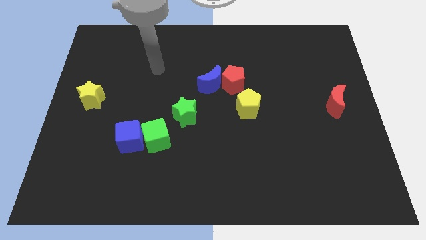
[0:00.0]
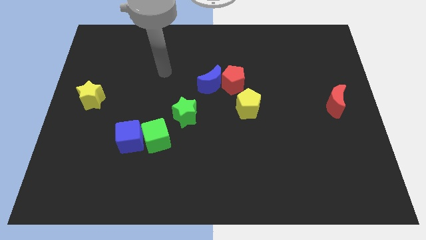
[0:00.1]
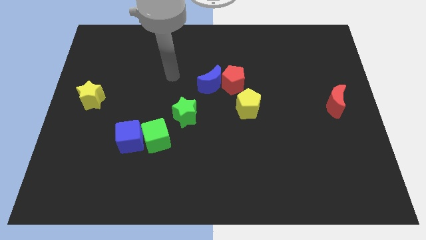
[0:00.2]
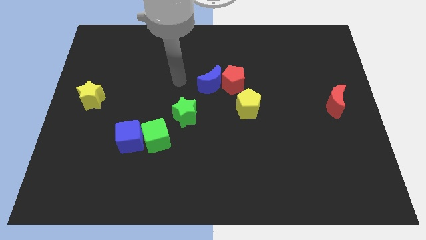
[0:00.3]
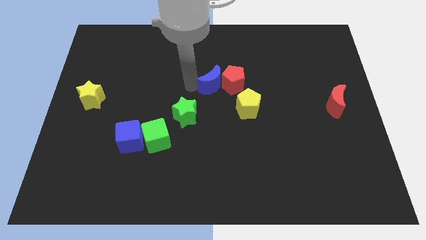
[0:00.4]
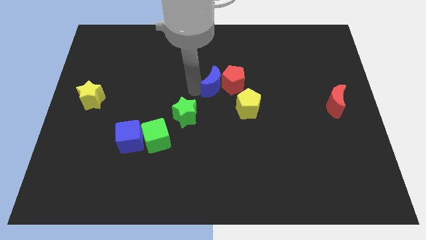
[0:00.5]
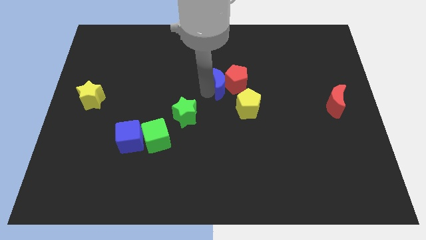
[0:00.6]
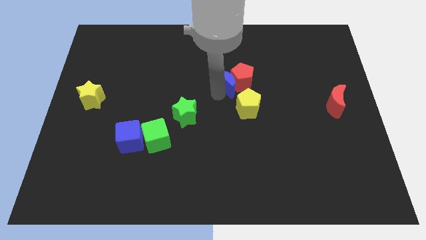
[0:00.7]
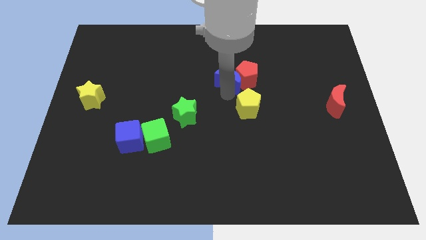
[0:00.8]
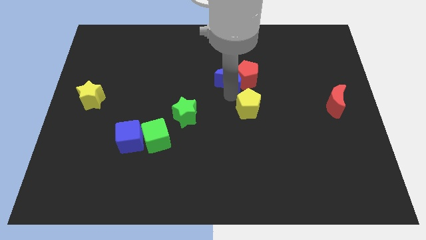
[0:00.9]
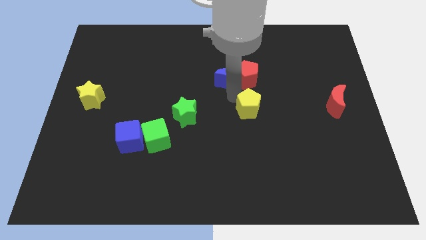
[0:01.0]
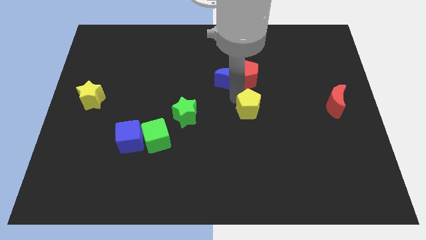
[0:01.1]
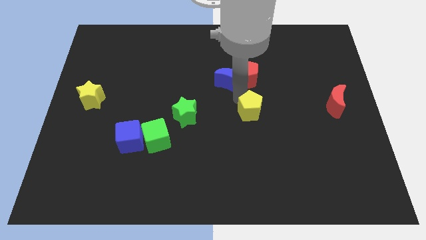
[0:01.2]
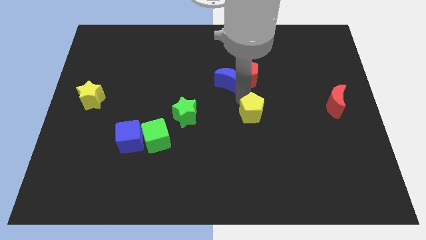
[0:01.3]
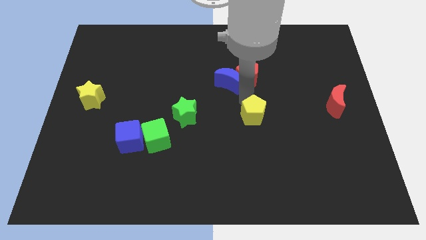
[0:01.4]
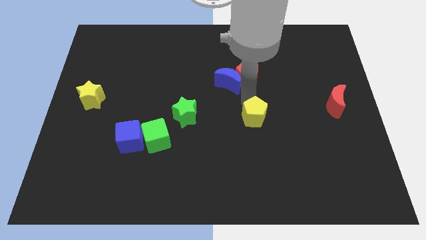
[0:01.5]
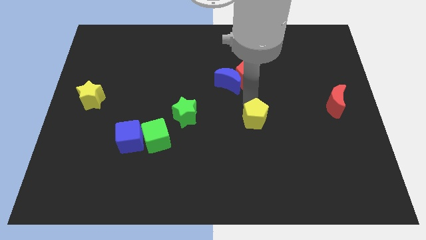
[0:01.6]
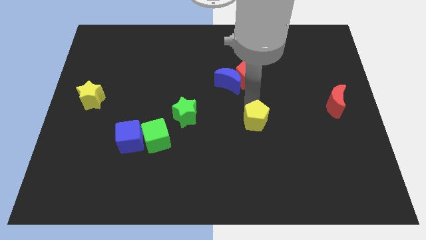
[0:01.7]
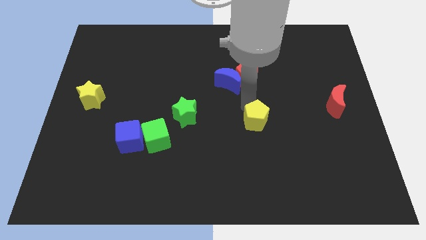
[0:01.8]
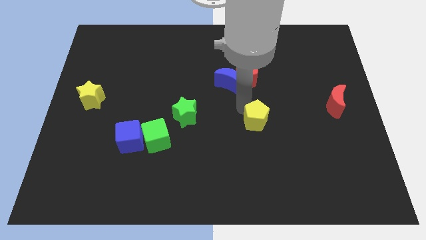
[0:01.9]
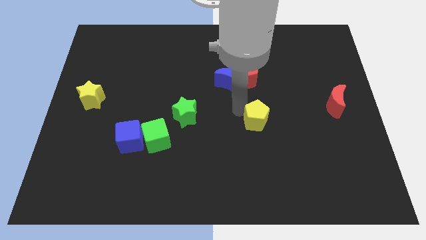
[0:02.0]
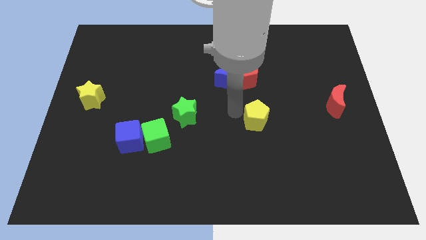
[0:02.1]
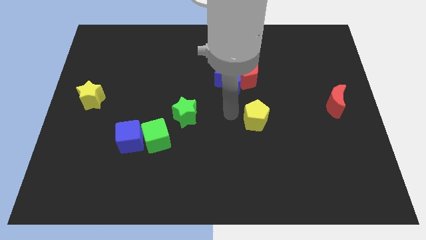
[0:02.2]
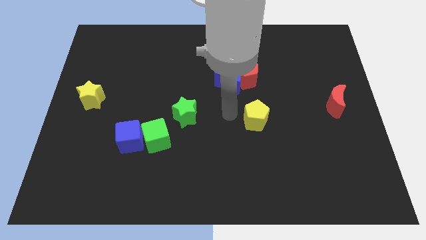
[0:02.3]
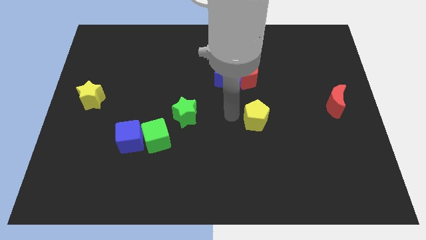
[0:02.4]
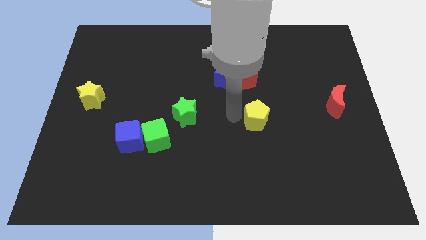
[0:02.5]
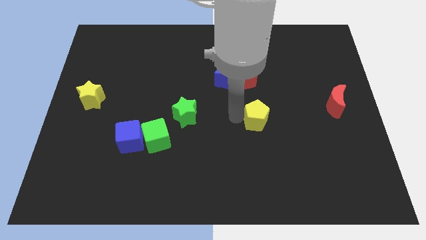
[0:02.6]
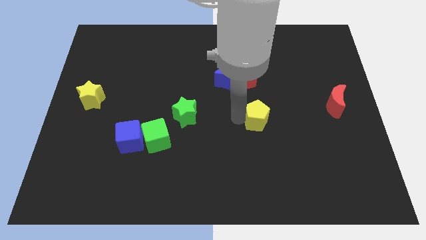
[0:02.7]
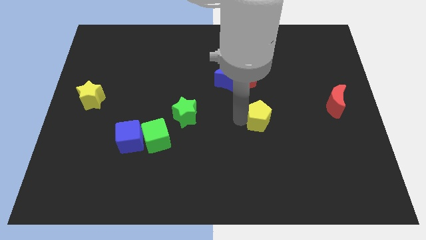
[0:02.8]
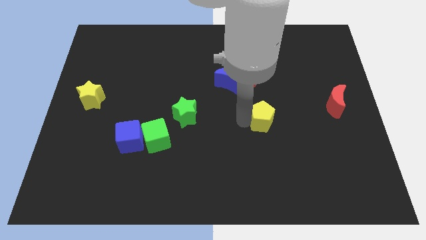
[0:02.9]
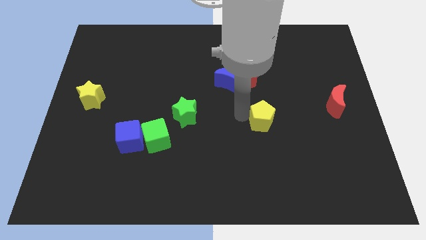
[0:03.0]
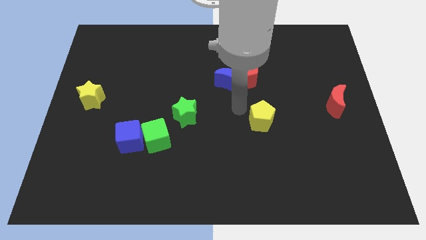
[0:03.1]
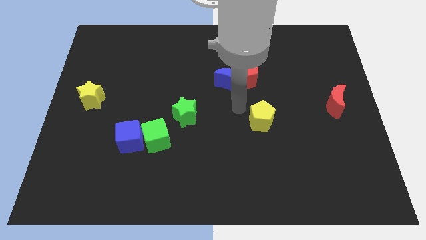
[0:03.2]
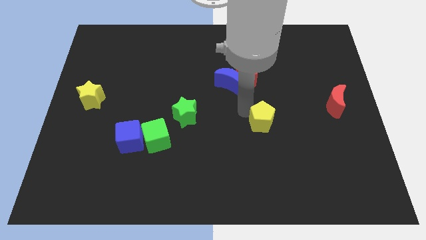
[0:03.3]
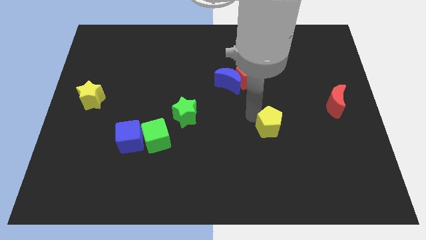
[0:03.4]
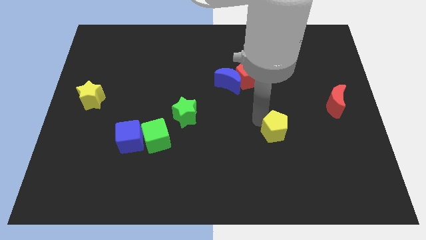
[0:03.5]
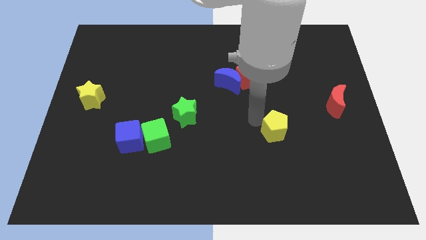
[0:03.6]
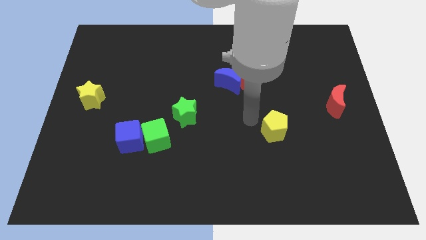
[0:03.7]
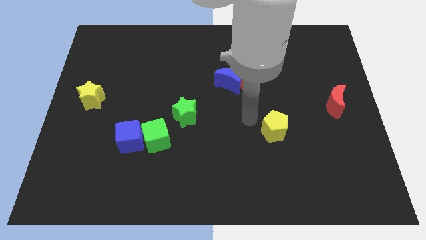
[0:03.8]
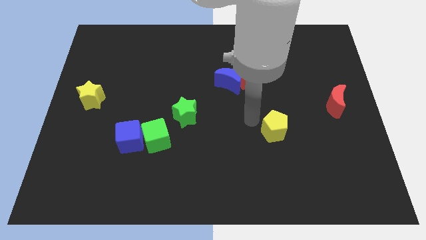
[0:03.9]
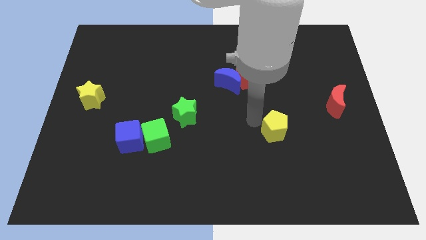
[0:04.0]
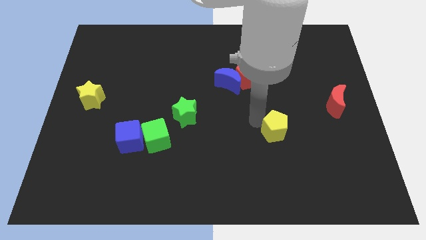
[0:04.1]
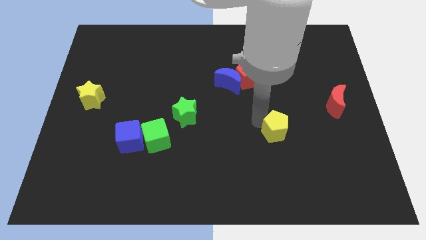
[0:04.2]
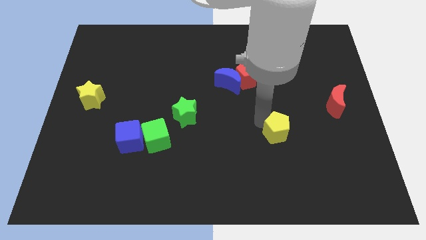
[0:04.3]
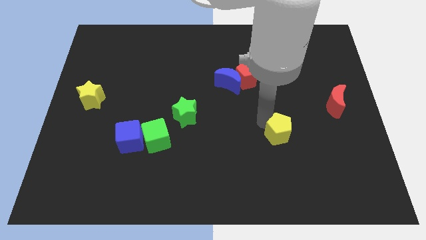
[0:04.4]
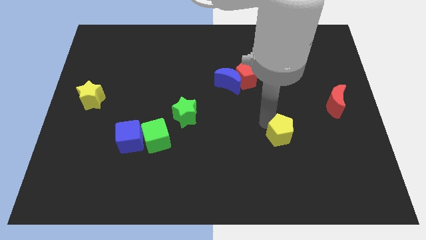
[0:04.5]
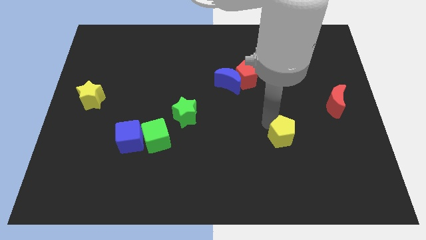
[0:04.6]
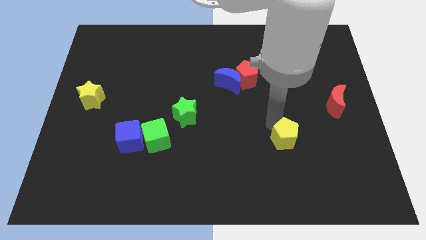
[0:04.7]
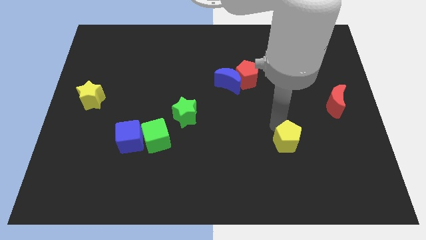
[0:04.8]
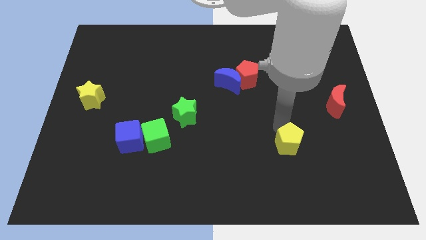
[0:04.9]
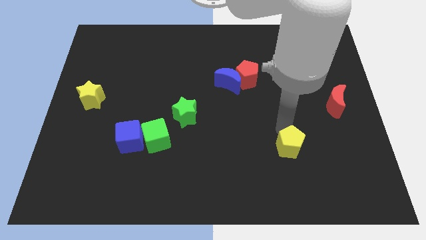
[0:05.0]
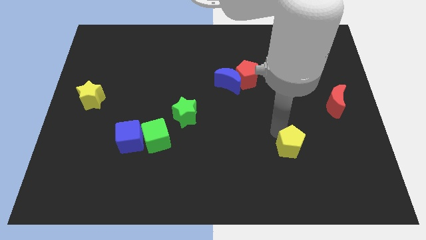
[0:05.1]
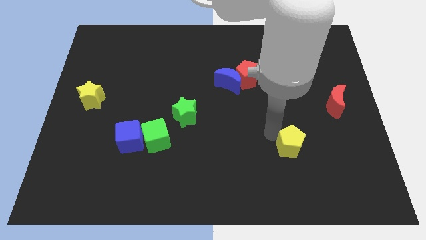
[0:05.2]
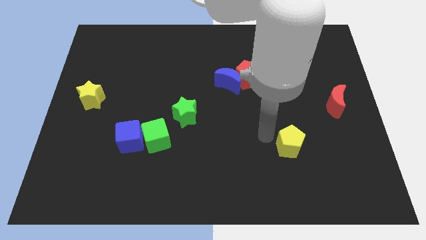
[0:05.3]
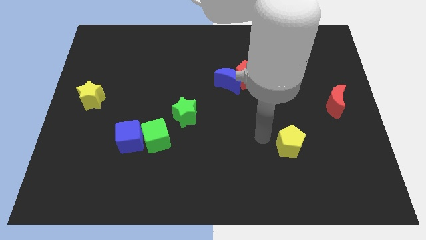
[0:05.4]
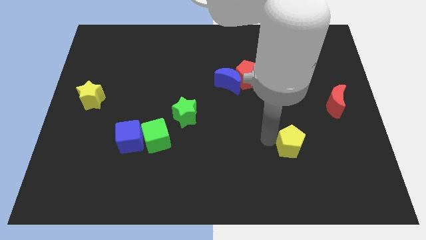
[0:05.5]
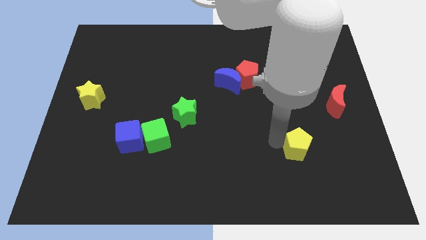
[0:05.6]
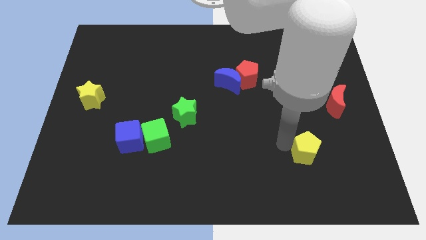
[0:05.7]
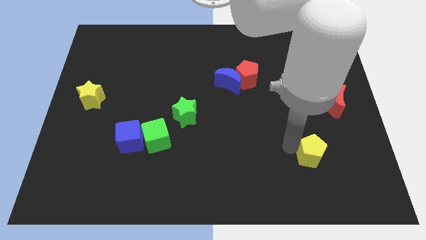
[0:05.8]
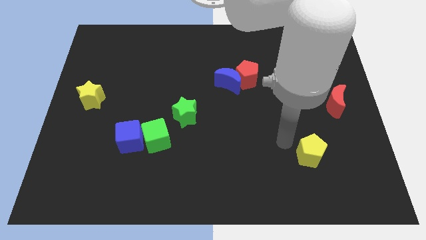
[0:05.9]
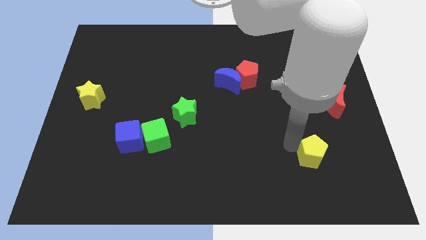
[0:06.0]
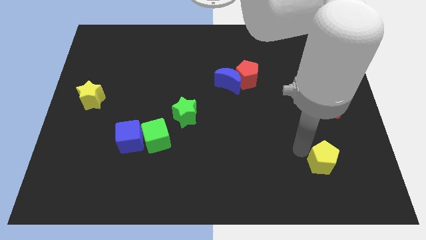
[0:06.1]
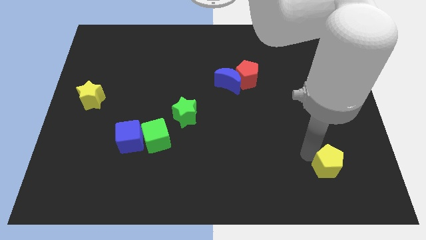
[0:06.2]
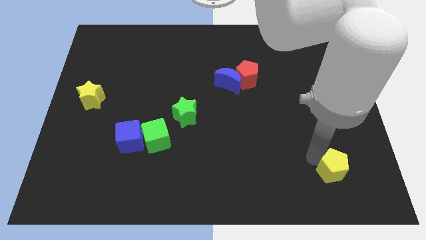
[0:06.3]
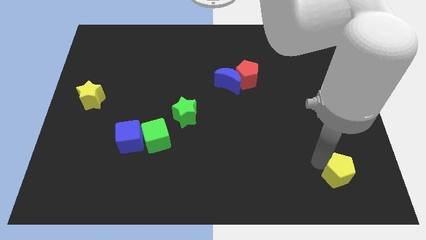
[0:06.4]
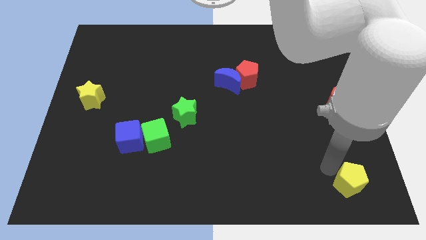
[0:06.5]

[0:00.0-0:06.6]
push the yellow pentagon to the bottom right

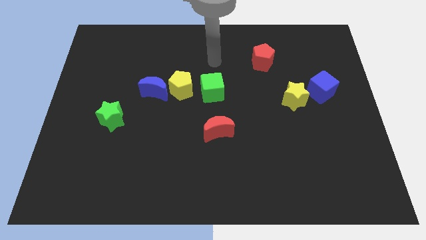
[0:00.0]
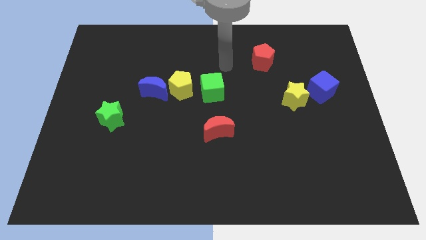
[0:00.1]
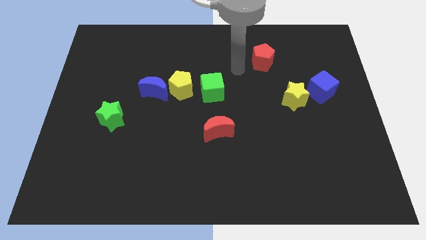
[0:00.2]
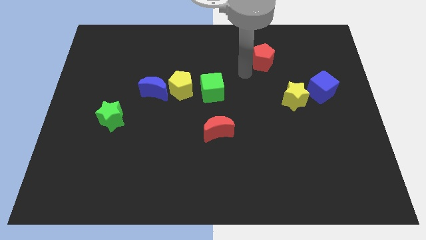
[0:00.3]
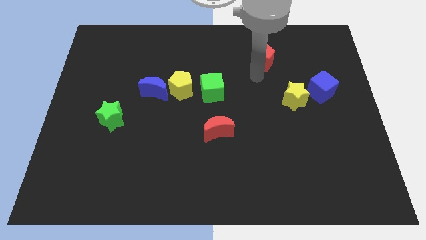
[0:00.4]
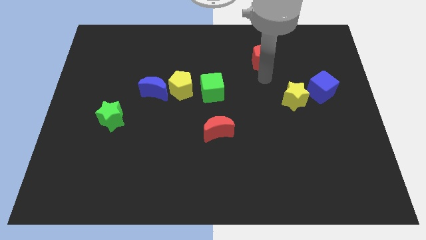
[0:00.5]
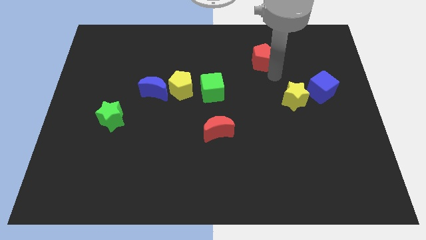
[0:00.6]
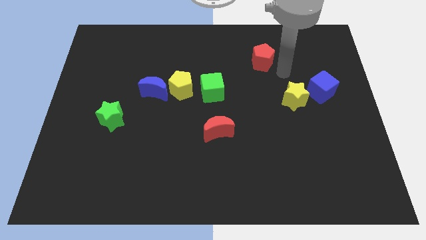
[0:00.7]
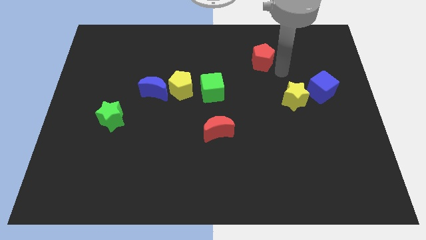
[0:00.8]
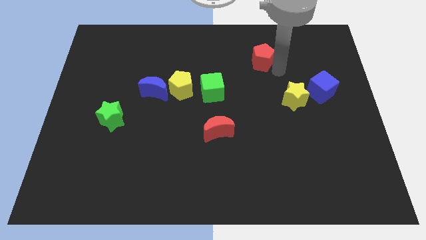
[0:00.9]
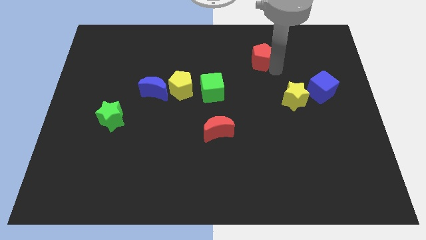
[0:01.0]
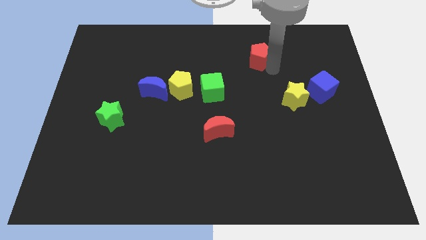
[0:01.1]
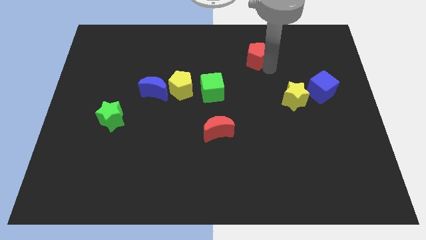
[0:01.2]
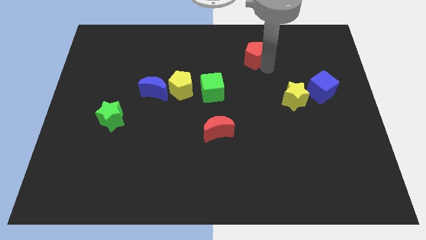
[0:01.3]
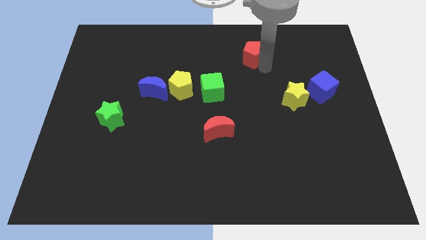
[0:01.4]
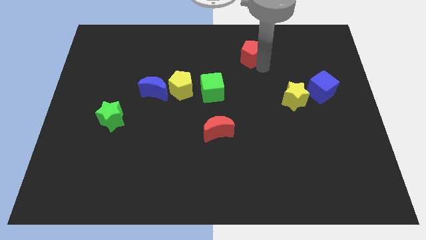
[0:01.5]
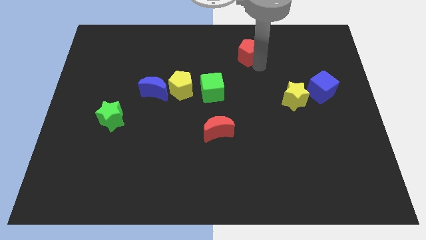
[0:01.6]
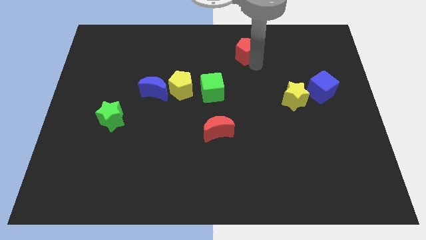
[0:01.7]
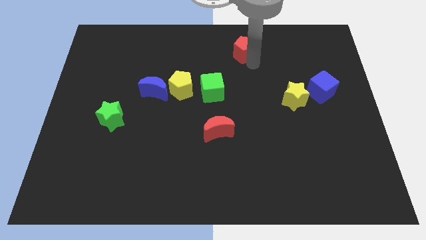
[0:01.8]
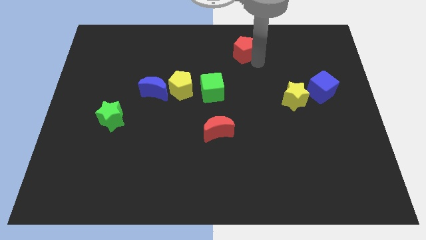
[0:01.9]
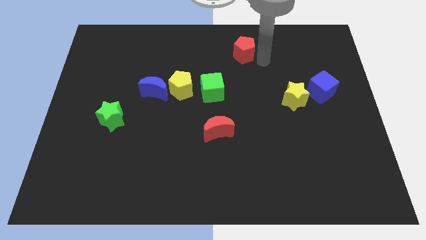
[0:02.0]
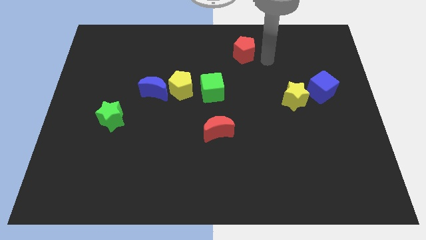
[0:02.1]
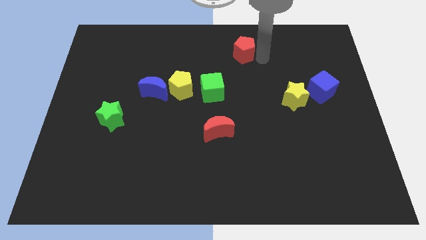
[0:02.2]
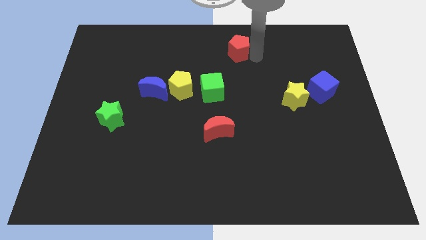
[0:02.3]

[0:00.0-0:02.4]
slide the red pentagon to the top side
